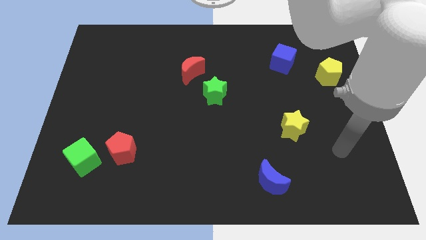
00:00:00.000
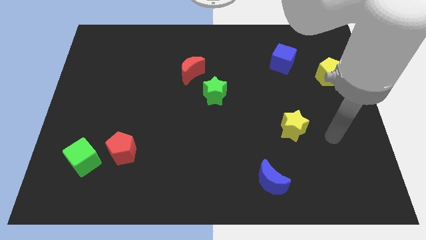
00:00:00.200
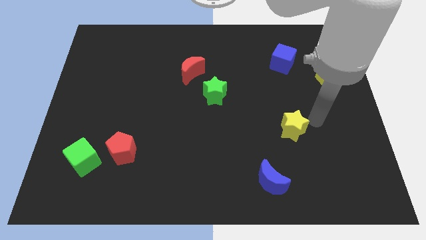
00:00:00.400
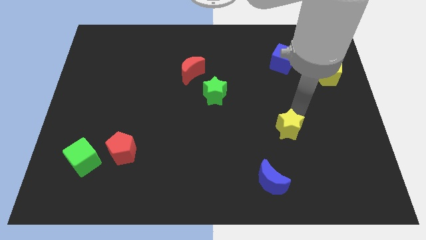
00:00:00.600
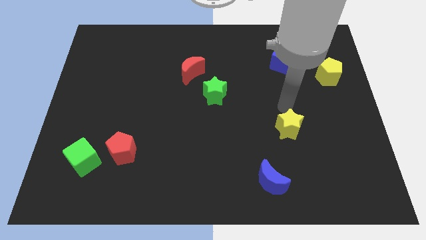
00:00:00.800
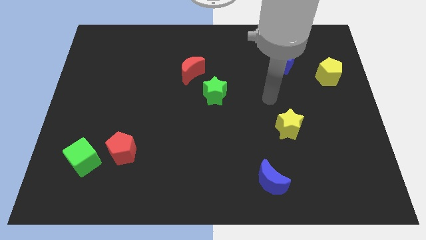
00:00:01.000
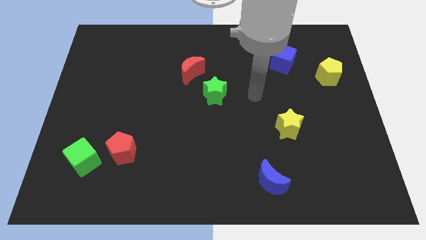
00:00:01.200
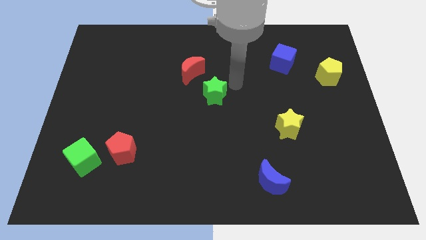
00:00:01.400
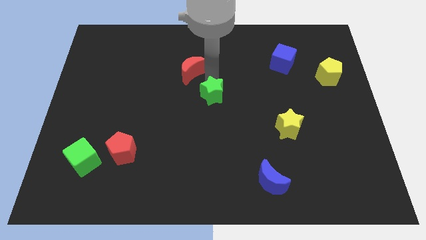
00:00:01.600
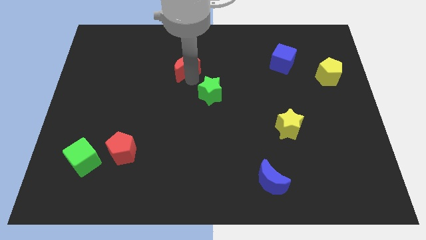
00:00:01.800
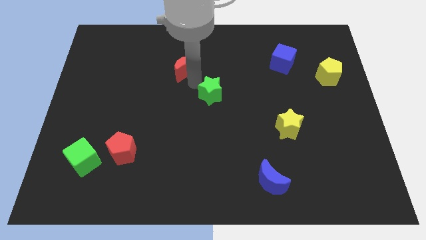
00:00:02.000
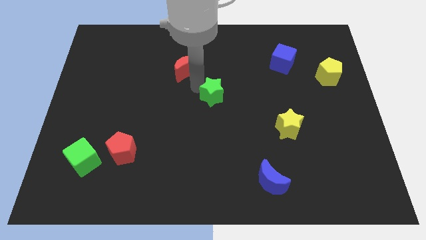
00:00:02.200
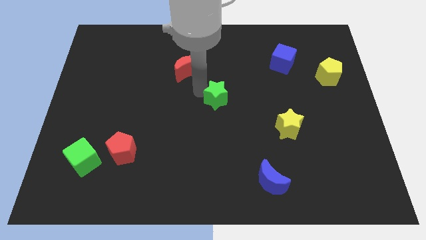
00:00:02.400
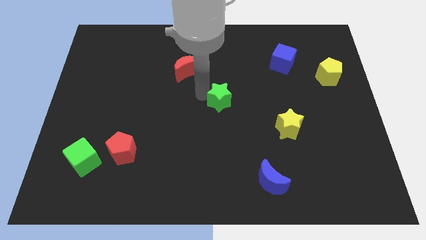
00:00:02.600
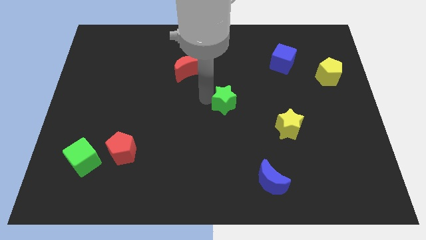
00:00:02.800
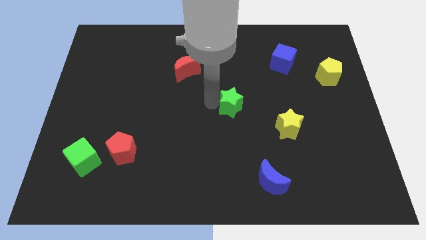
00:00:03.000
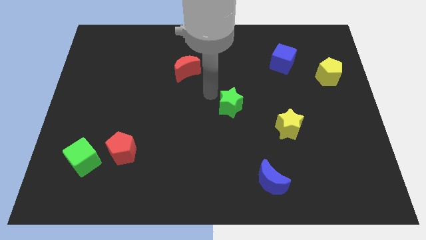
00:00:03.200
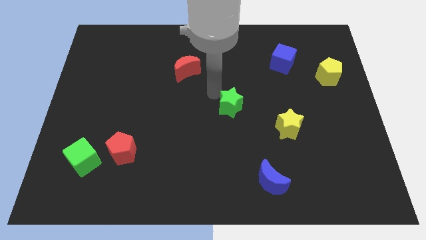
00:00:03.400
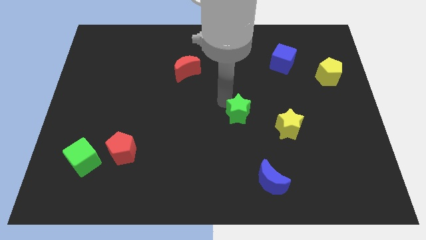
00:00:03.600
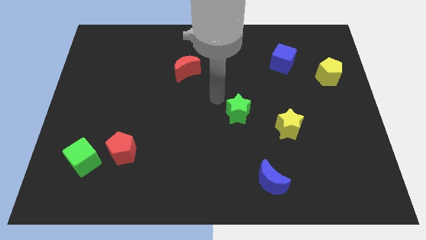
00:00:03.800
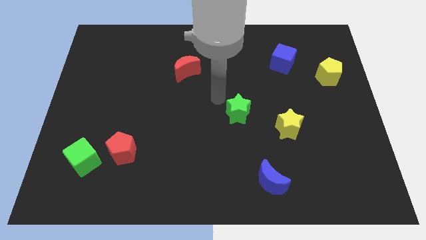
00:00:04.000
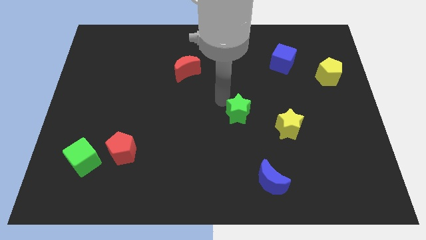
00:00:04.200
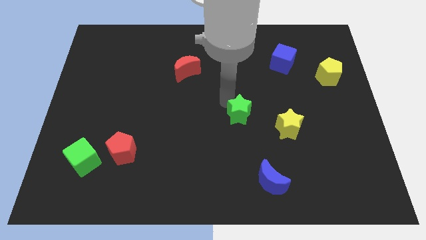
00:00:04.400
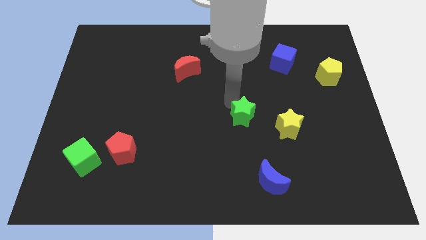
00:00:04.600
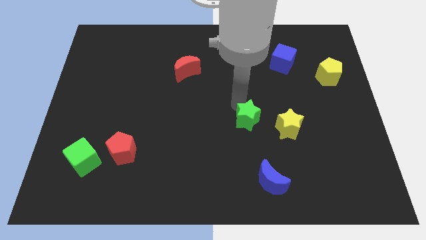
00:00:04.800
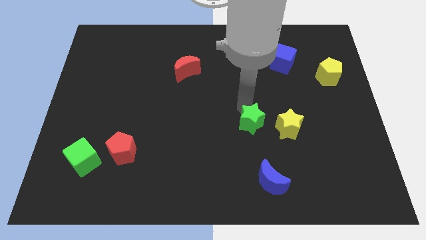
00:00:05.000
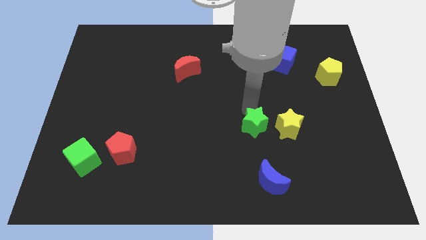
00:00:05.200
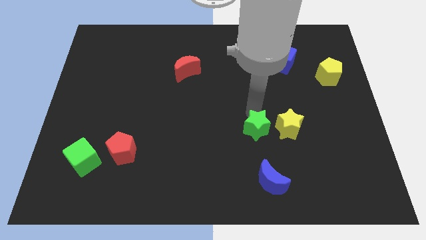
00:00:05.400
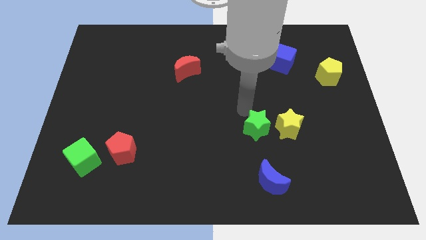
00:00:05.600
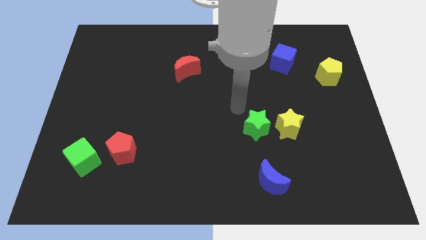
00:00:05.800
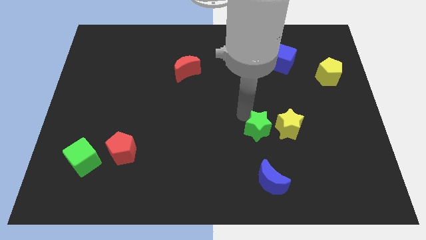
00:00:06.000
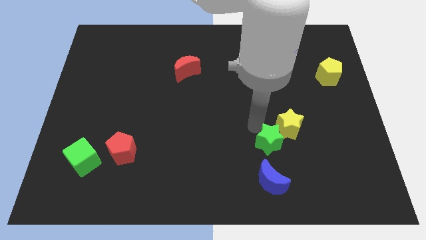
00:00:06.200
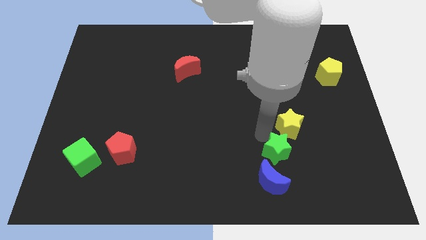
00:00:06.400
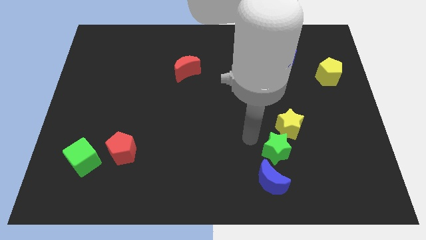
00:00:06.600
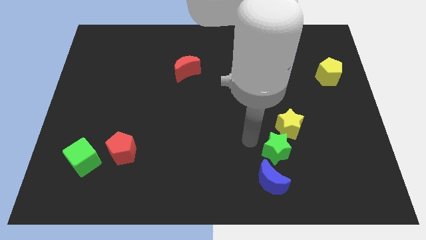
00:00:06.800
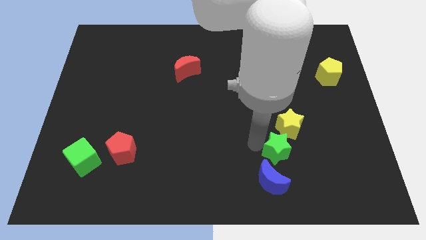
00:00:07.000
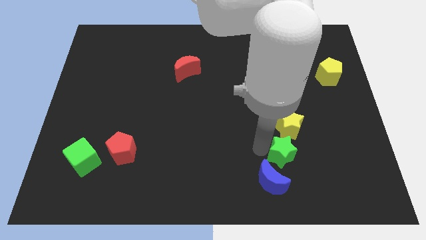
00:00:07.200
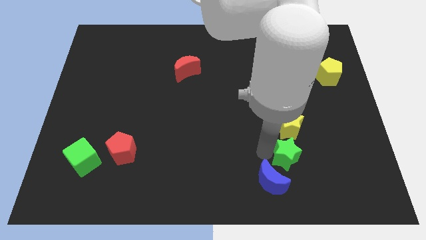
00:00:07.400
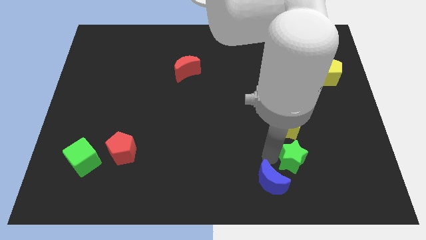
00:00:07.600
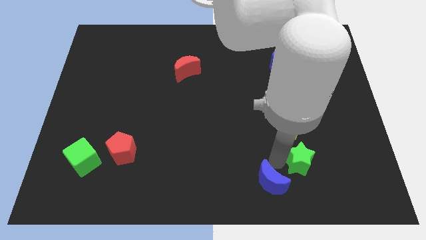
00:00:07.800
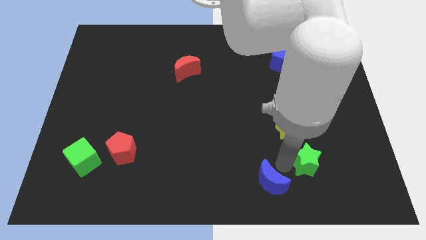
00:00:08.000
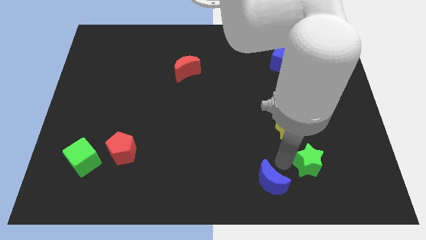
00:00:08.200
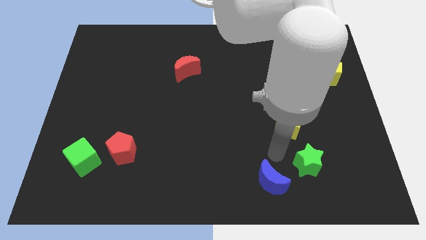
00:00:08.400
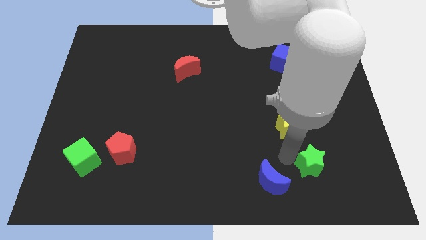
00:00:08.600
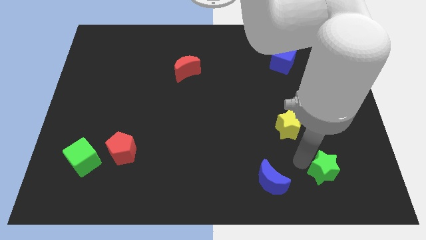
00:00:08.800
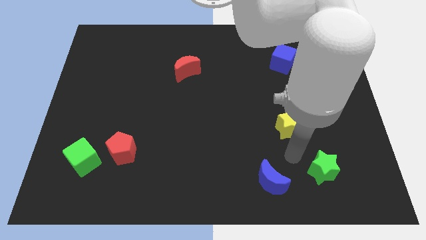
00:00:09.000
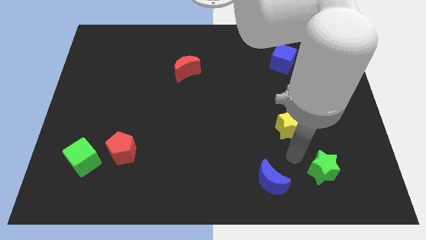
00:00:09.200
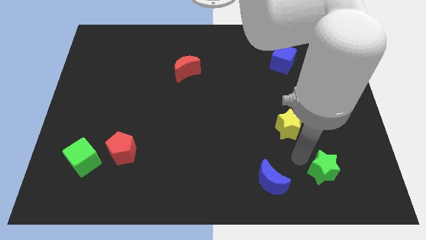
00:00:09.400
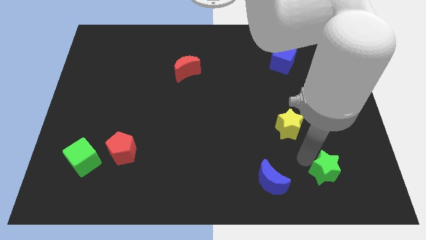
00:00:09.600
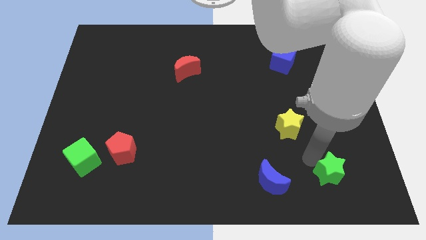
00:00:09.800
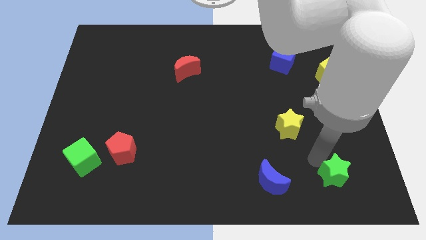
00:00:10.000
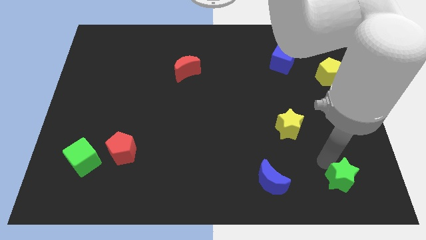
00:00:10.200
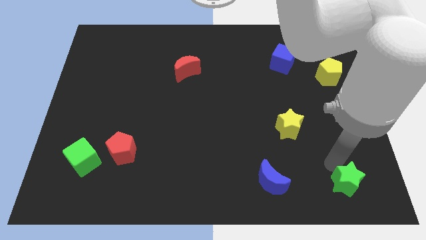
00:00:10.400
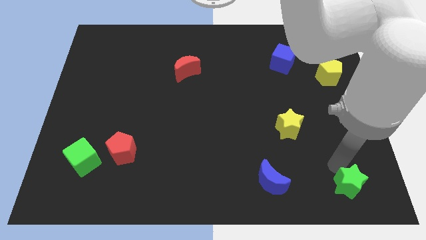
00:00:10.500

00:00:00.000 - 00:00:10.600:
push the green star to the bottom right corner
